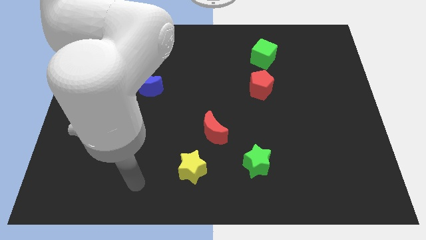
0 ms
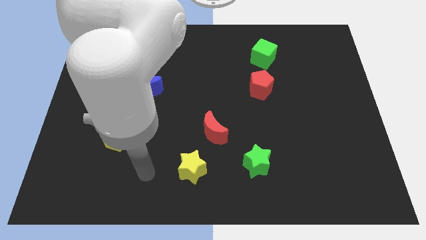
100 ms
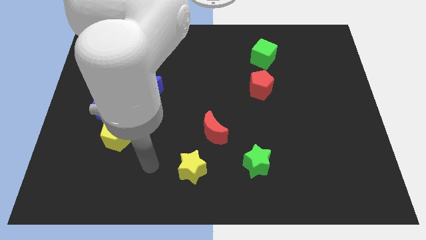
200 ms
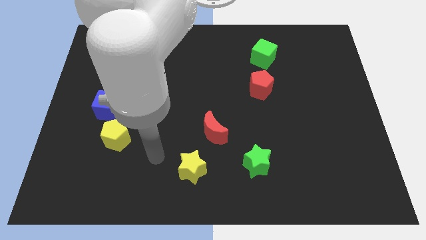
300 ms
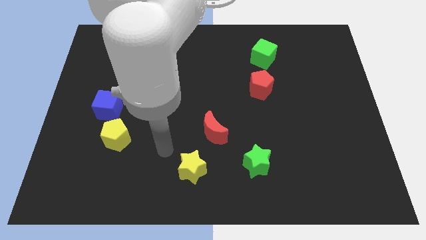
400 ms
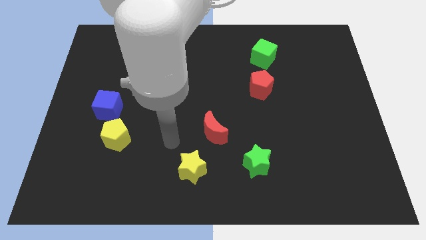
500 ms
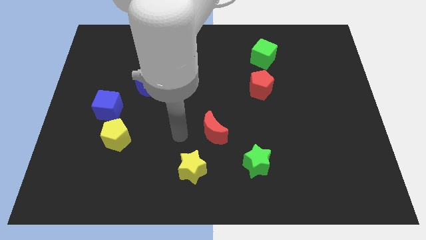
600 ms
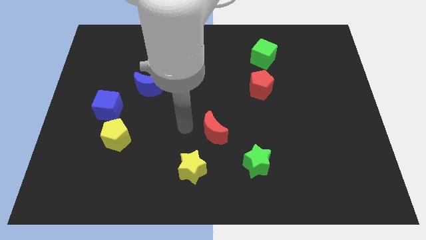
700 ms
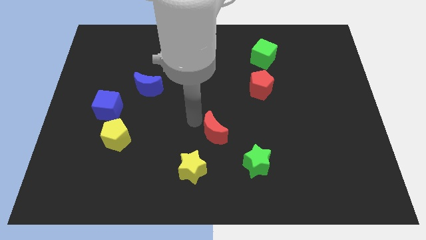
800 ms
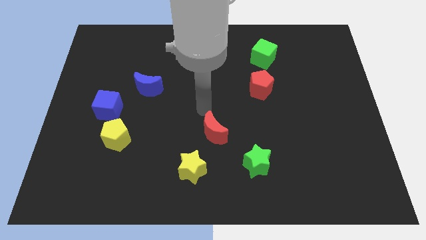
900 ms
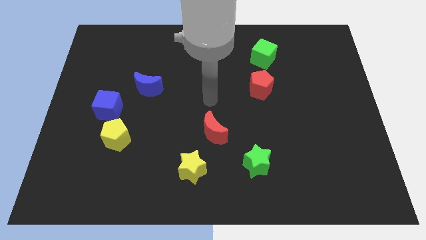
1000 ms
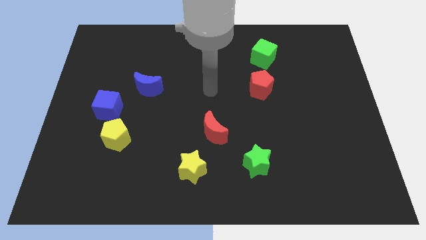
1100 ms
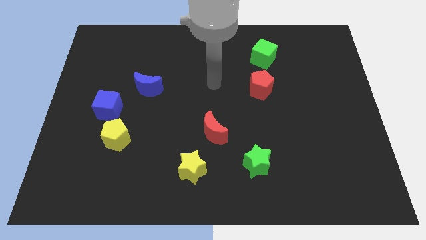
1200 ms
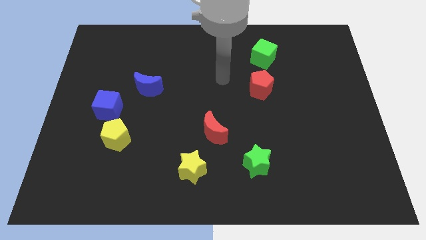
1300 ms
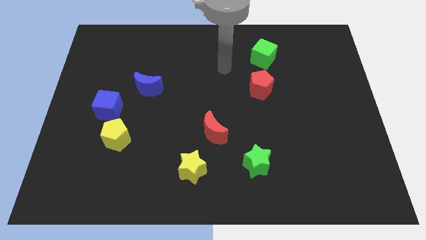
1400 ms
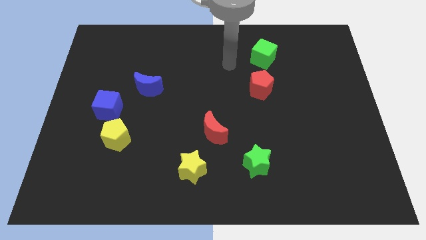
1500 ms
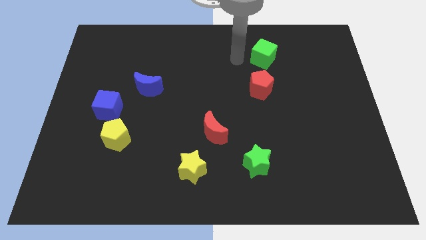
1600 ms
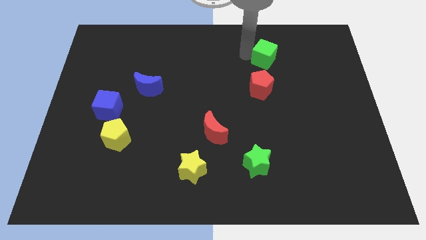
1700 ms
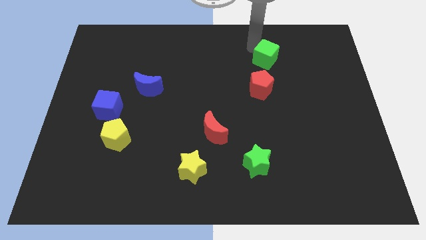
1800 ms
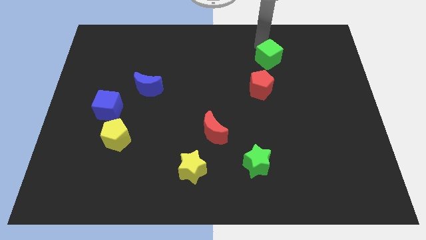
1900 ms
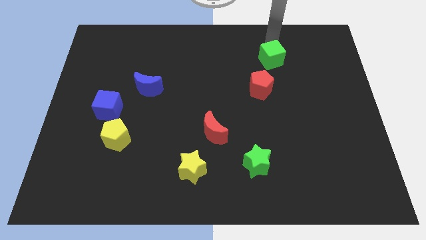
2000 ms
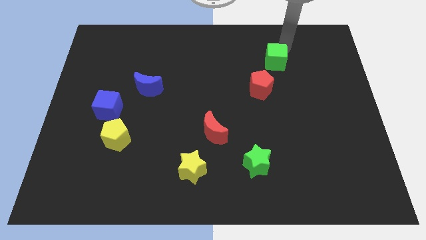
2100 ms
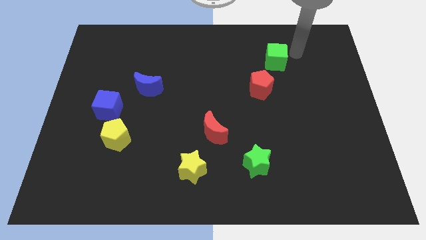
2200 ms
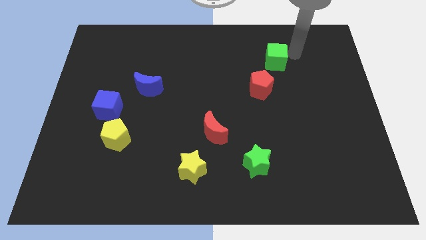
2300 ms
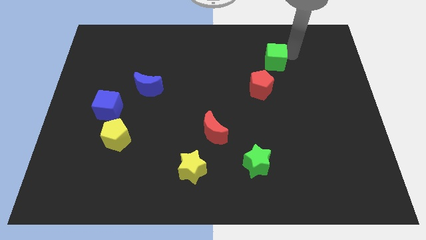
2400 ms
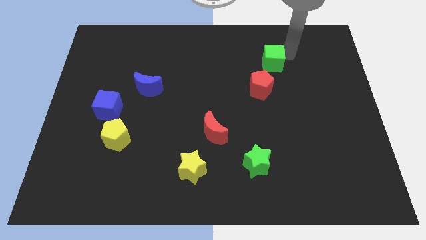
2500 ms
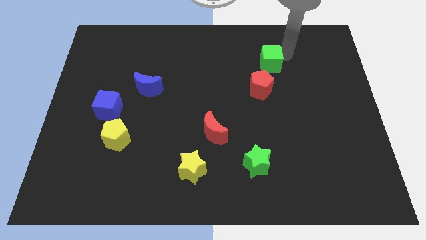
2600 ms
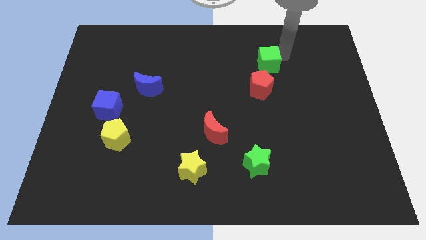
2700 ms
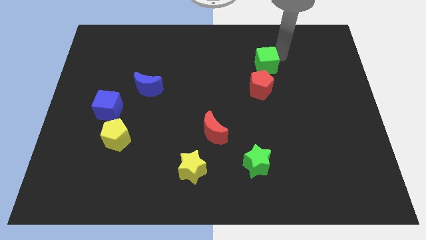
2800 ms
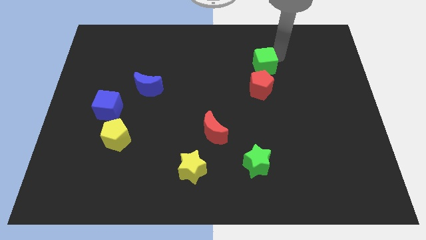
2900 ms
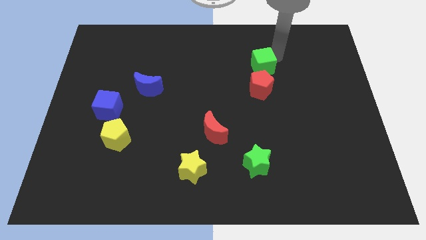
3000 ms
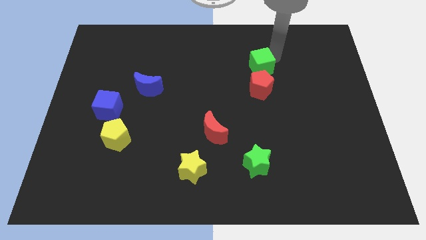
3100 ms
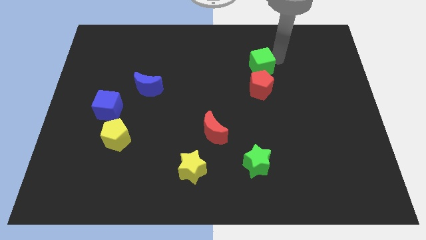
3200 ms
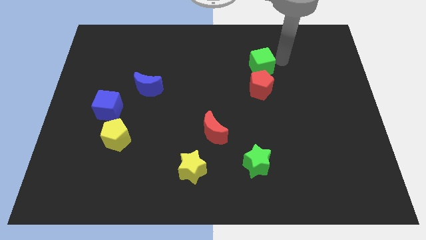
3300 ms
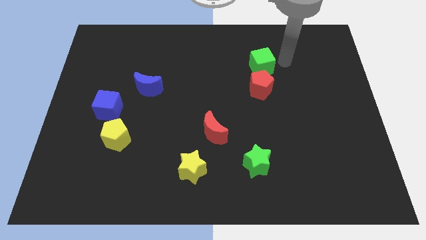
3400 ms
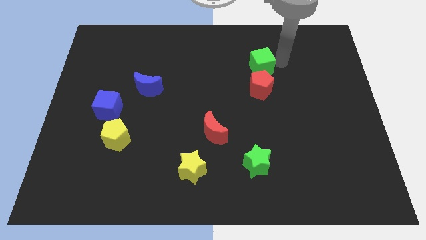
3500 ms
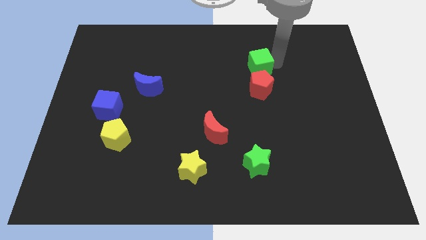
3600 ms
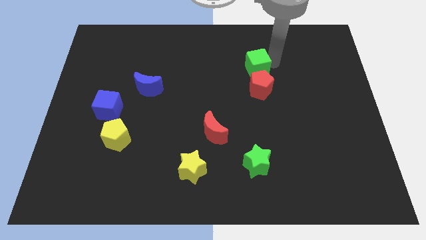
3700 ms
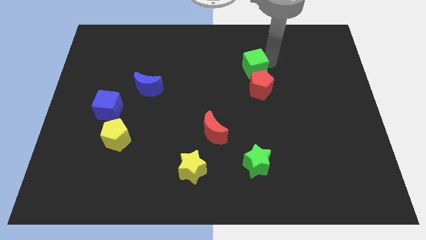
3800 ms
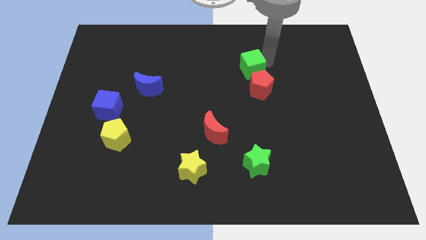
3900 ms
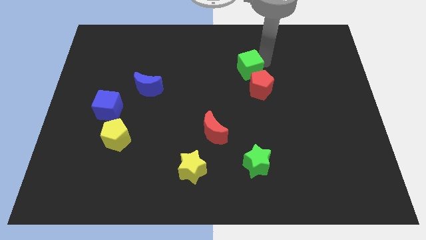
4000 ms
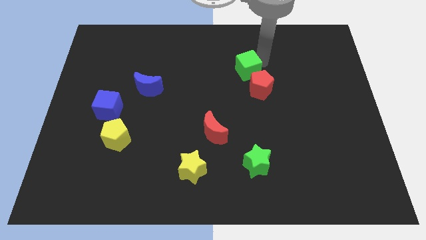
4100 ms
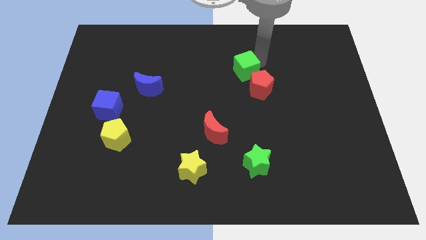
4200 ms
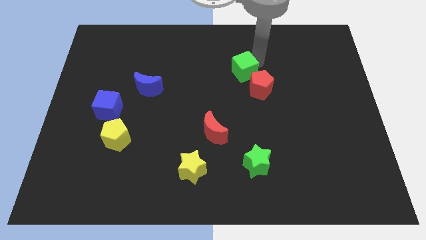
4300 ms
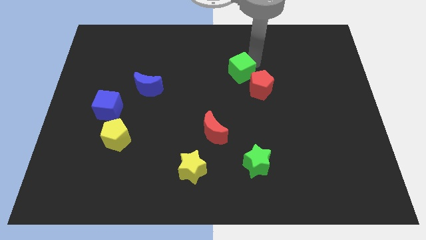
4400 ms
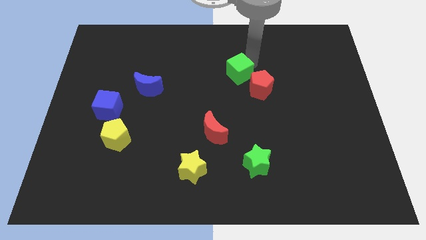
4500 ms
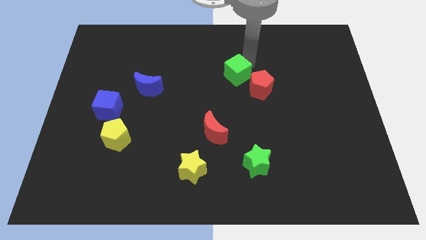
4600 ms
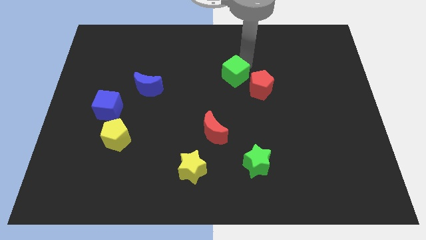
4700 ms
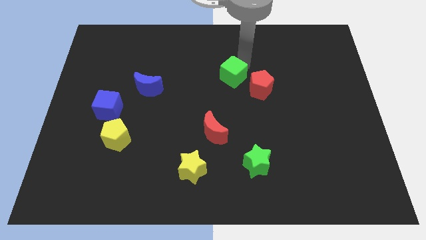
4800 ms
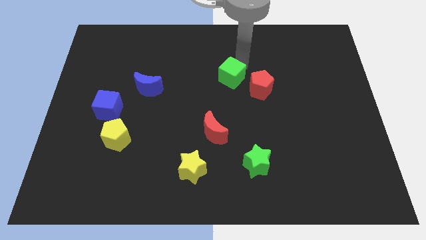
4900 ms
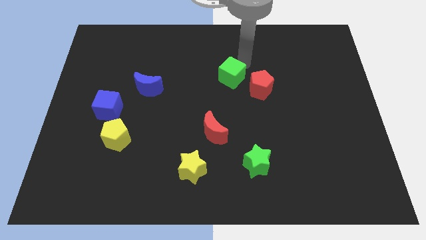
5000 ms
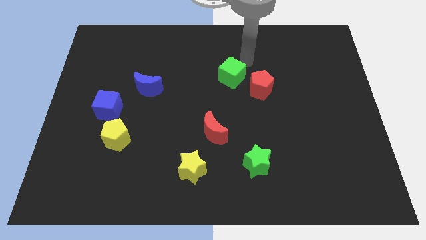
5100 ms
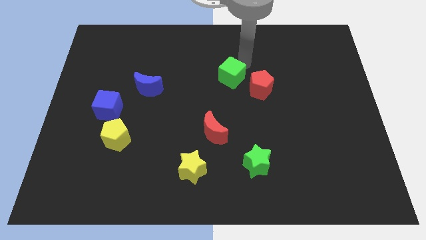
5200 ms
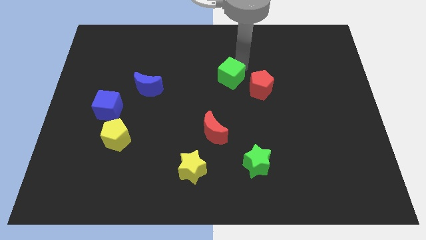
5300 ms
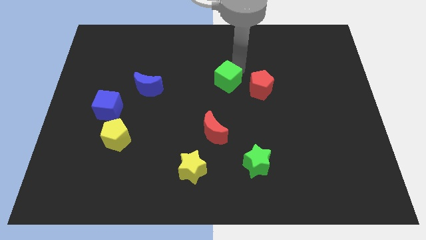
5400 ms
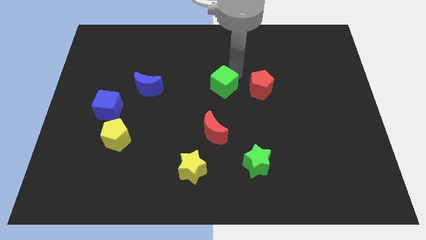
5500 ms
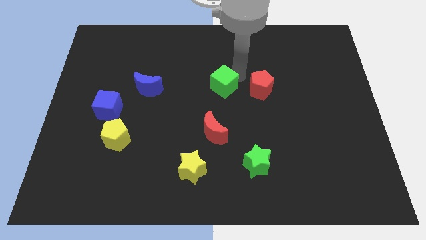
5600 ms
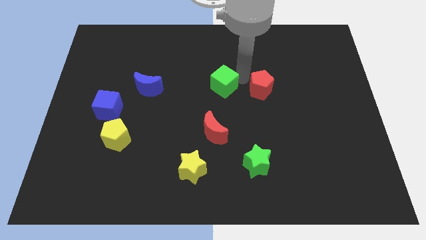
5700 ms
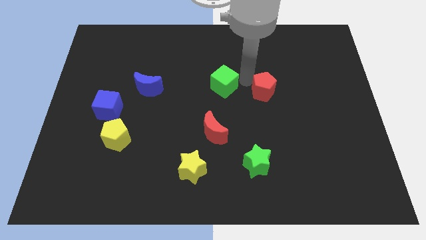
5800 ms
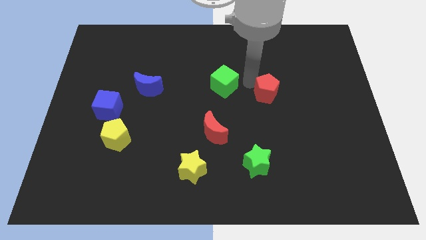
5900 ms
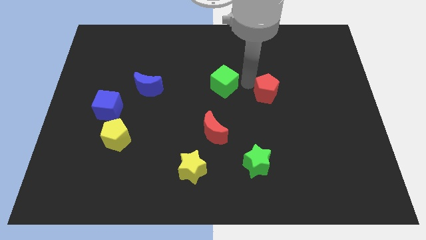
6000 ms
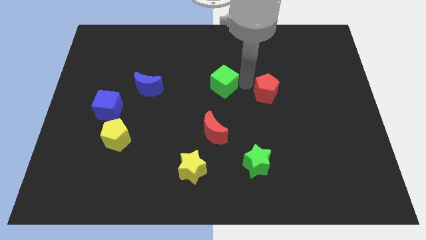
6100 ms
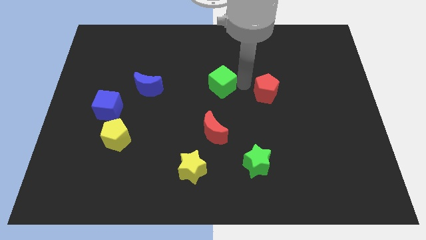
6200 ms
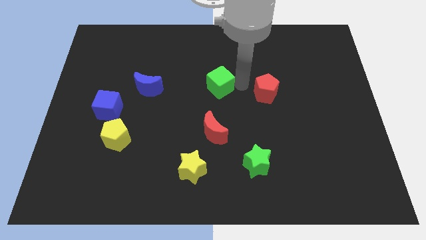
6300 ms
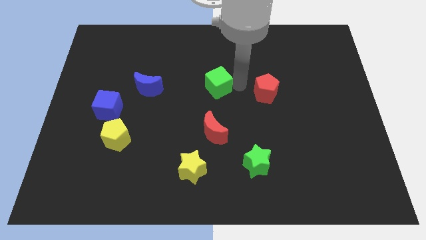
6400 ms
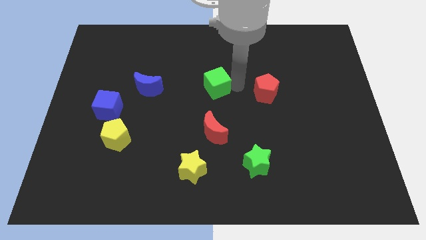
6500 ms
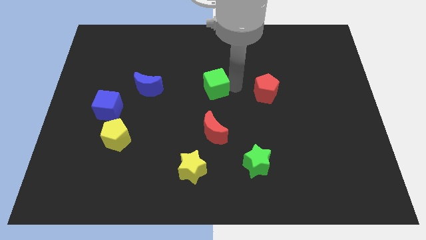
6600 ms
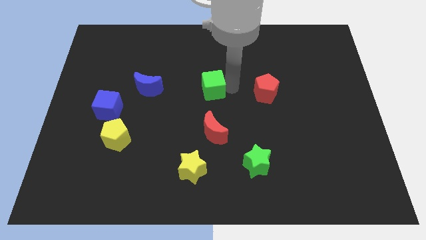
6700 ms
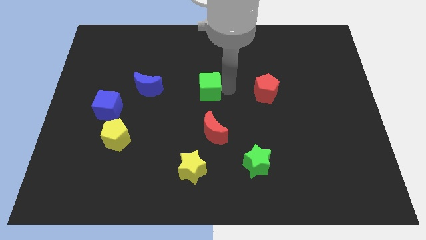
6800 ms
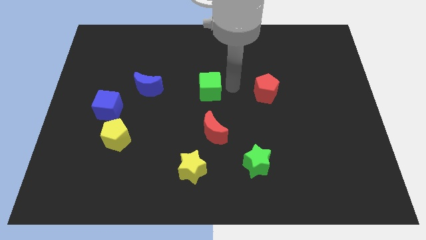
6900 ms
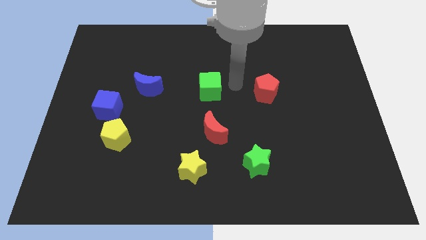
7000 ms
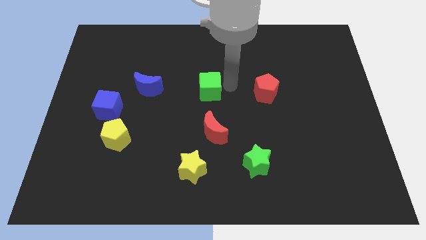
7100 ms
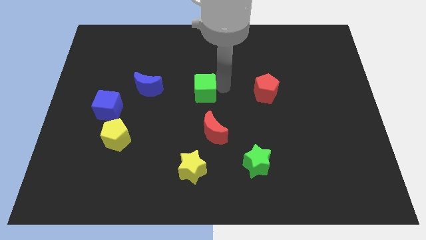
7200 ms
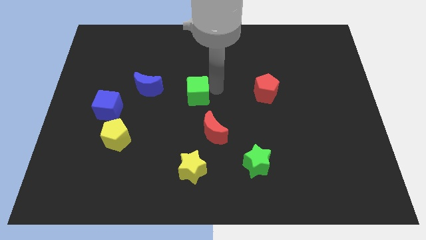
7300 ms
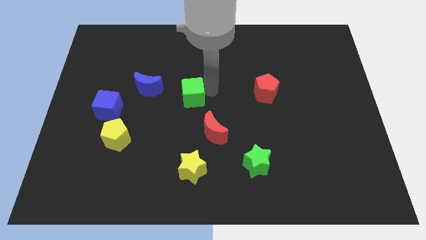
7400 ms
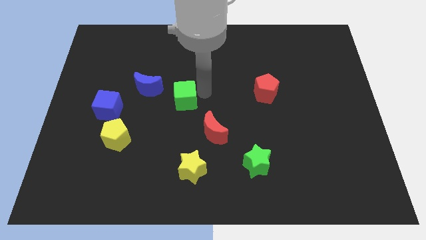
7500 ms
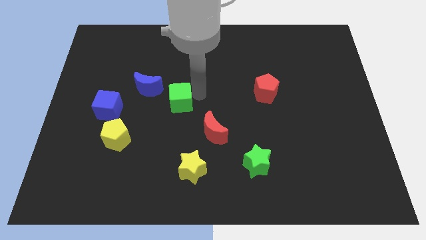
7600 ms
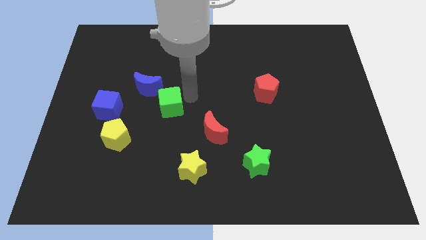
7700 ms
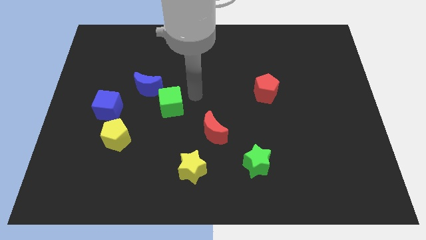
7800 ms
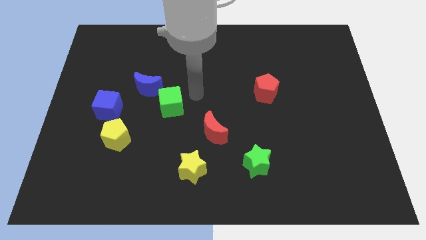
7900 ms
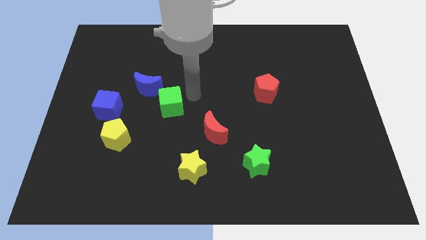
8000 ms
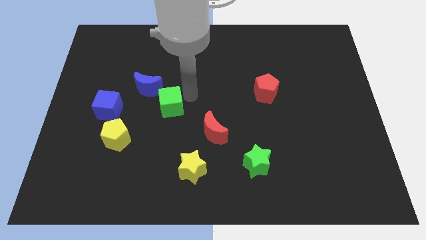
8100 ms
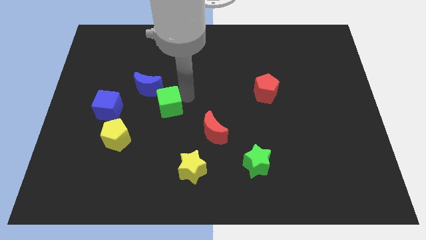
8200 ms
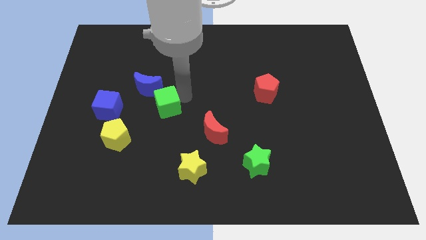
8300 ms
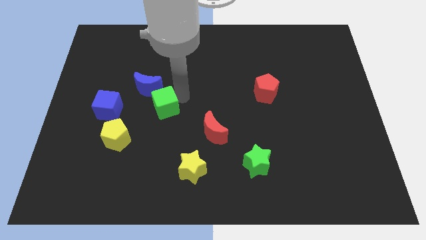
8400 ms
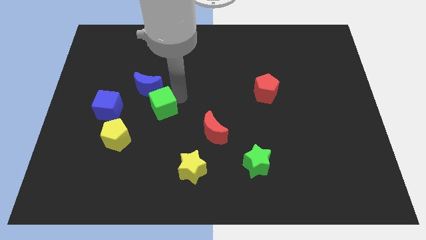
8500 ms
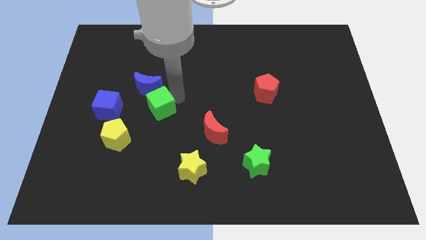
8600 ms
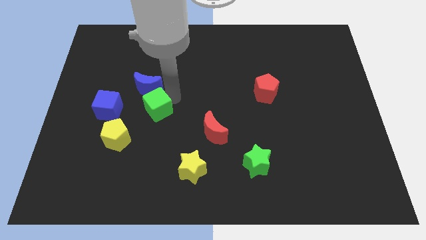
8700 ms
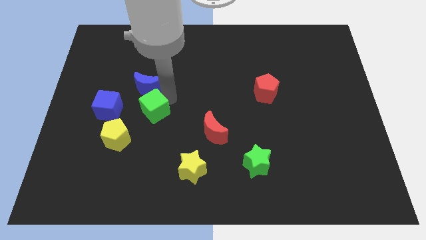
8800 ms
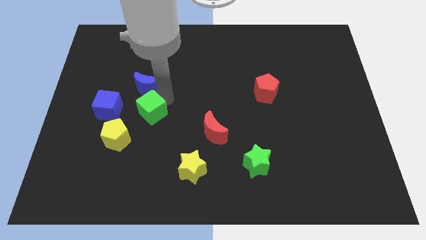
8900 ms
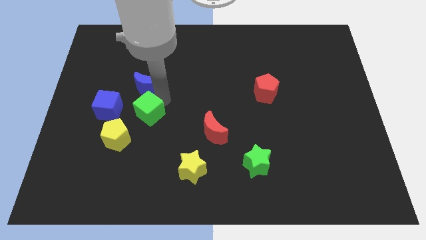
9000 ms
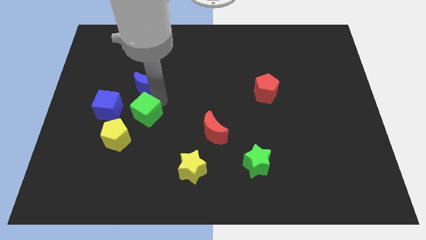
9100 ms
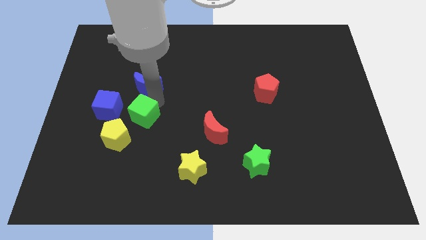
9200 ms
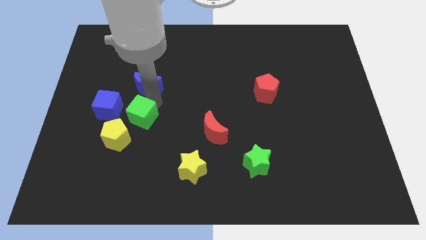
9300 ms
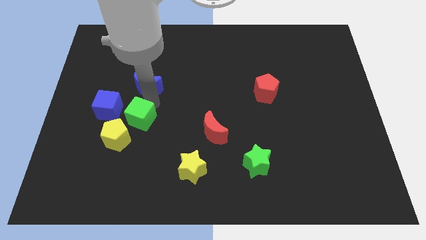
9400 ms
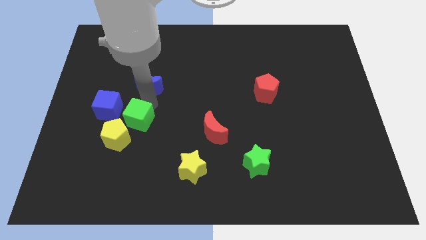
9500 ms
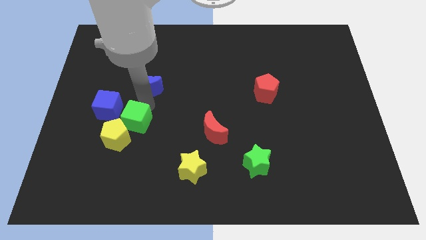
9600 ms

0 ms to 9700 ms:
slide the green cube towards the yellow pentagon
